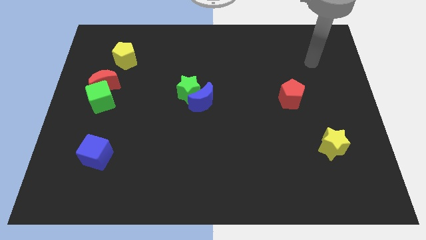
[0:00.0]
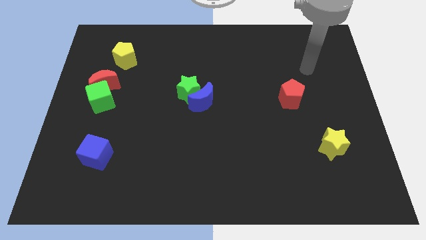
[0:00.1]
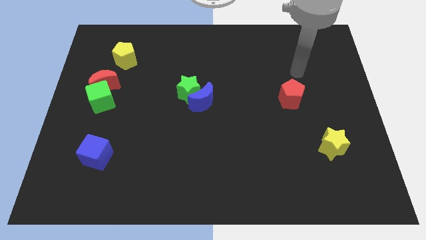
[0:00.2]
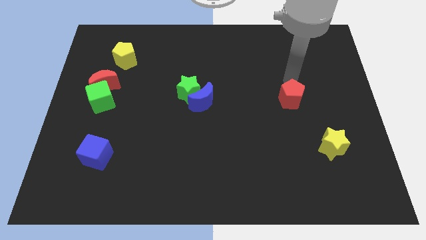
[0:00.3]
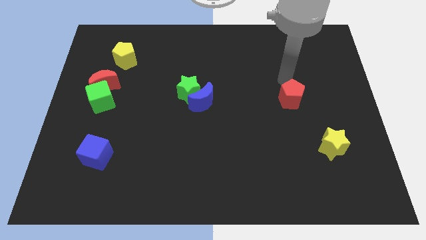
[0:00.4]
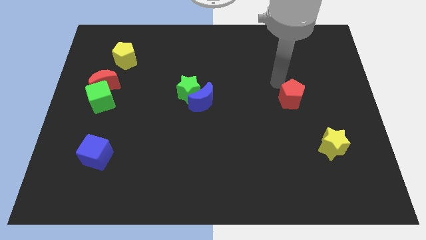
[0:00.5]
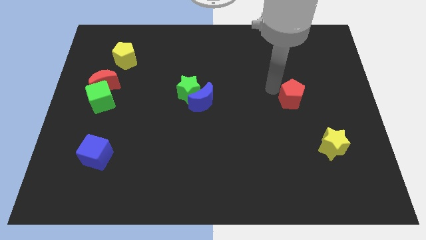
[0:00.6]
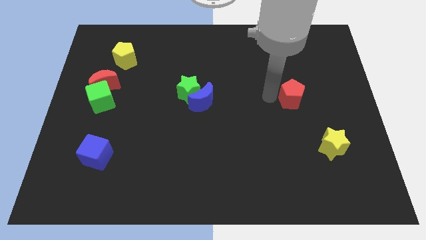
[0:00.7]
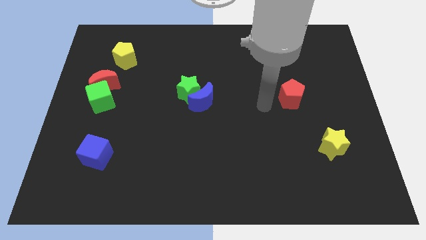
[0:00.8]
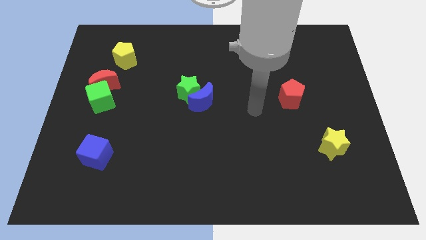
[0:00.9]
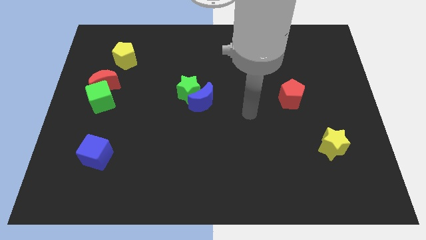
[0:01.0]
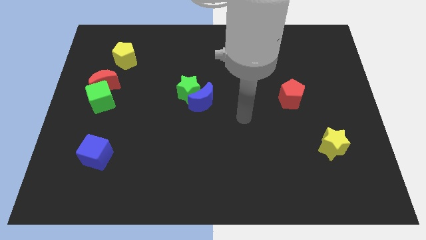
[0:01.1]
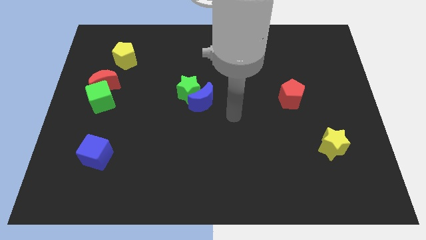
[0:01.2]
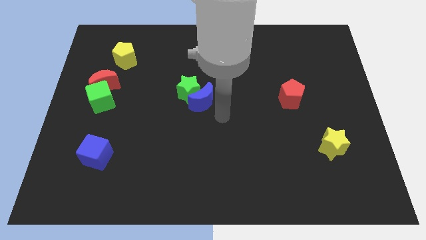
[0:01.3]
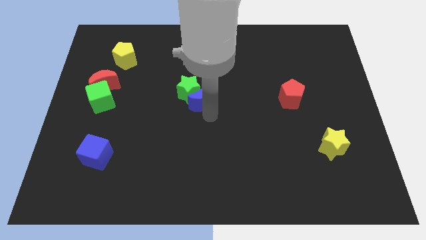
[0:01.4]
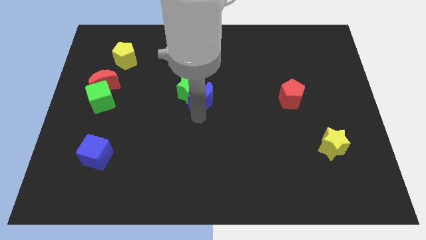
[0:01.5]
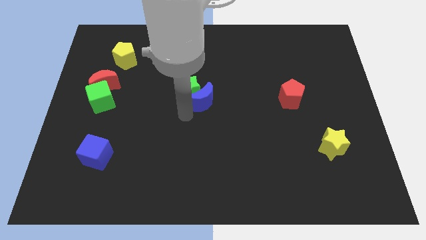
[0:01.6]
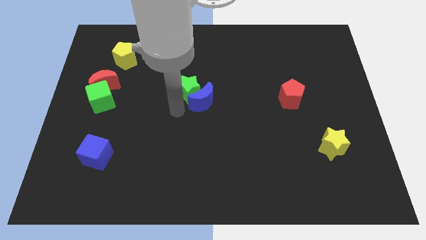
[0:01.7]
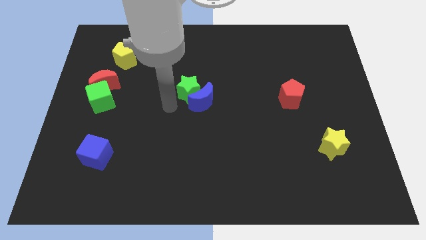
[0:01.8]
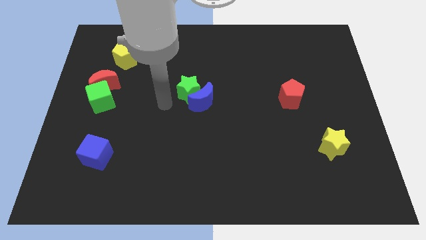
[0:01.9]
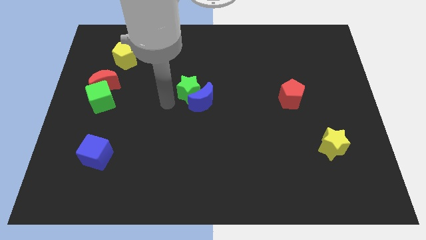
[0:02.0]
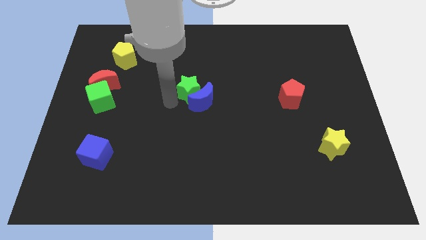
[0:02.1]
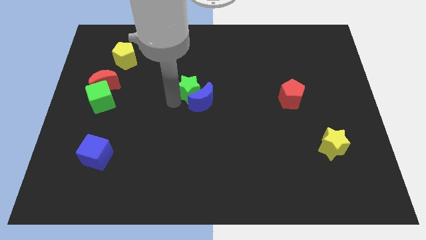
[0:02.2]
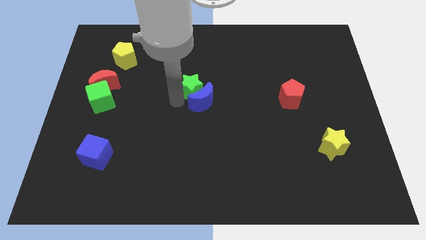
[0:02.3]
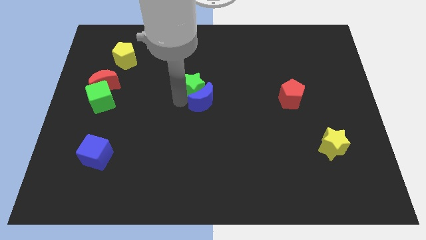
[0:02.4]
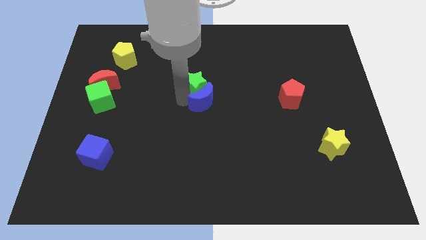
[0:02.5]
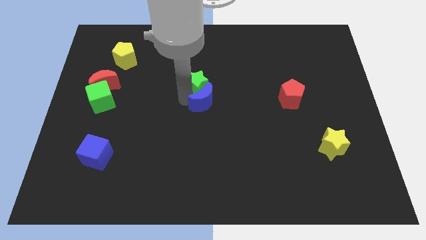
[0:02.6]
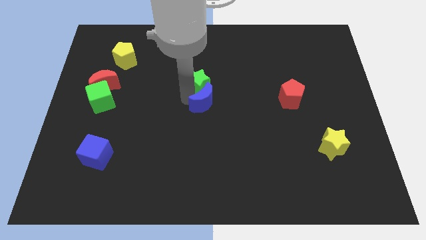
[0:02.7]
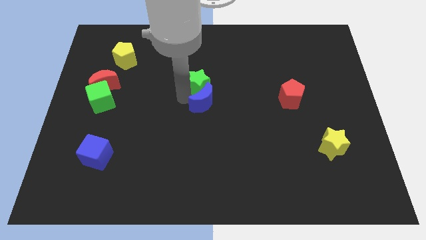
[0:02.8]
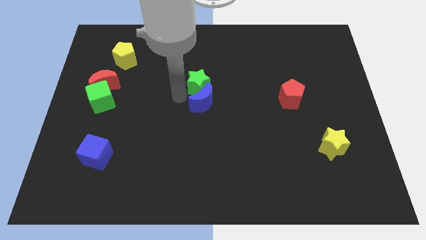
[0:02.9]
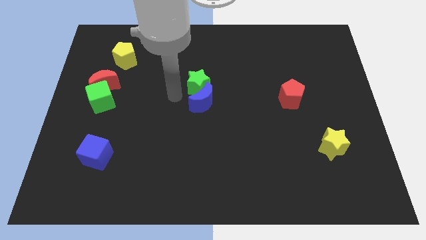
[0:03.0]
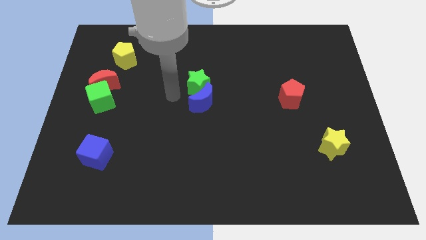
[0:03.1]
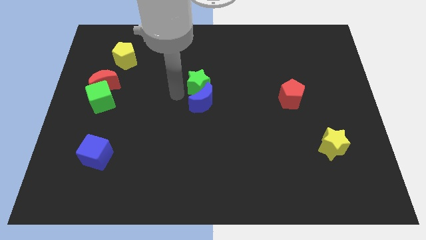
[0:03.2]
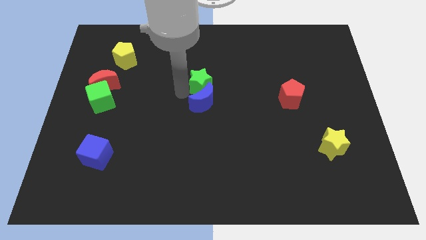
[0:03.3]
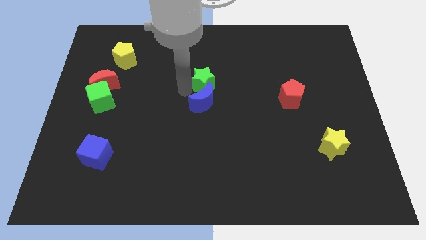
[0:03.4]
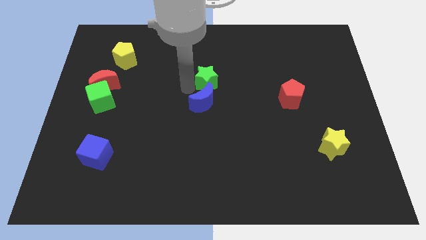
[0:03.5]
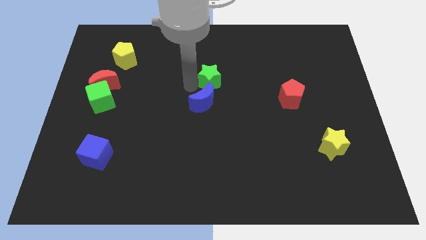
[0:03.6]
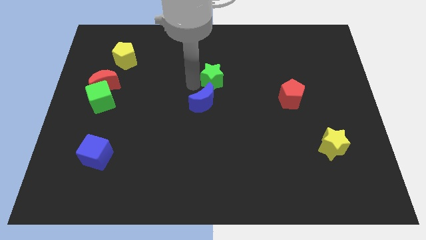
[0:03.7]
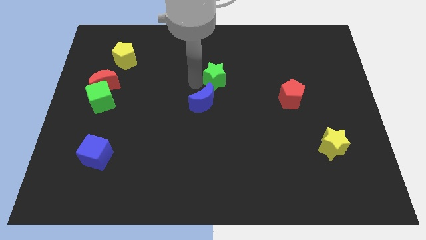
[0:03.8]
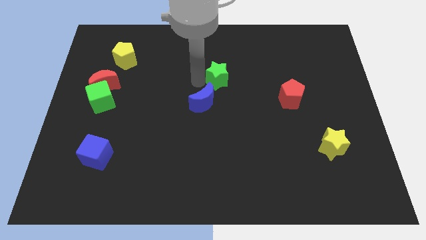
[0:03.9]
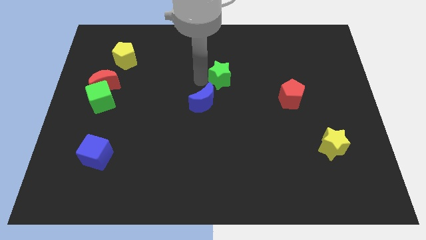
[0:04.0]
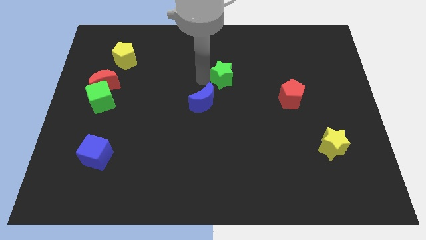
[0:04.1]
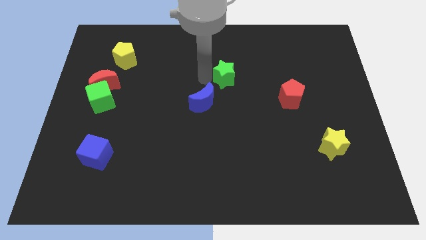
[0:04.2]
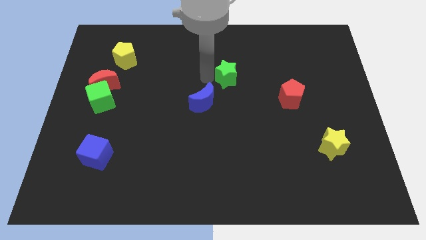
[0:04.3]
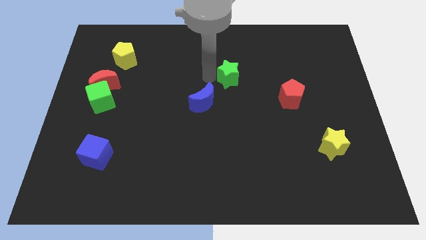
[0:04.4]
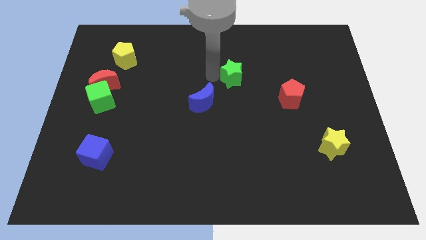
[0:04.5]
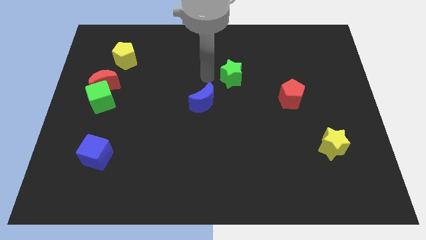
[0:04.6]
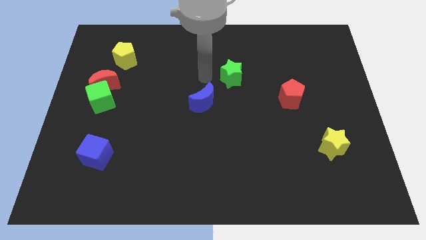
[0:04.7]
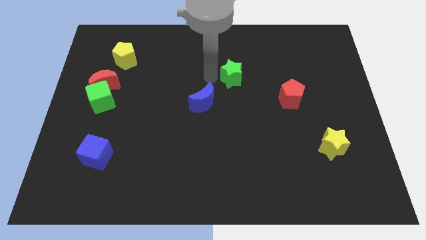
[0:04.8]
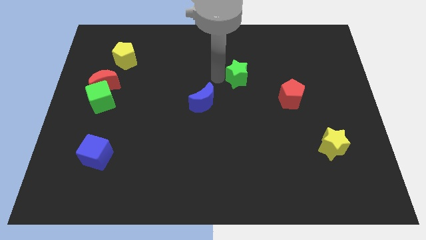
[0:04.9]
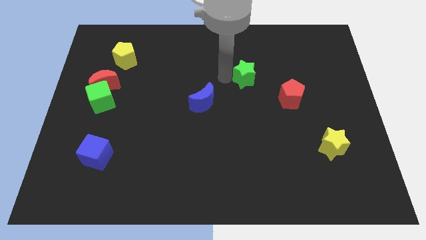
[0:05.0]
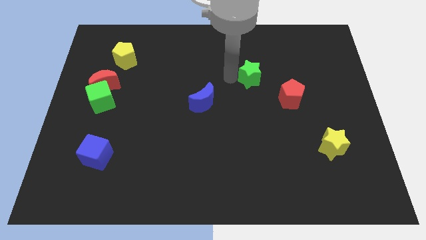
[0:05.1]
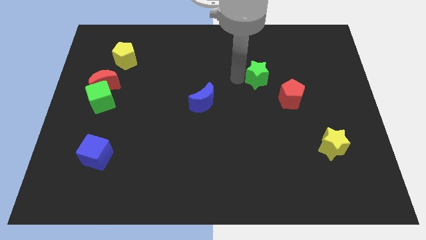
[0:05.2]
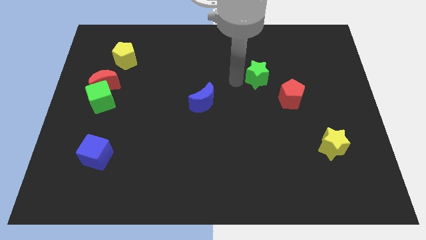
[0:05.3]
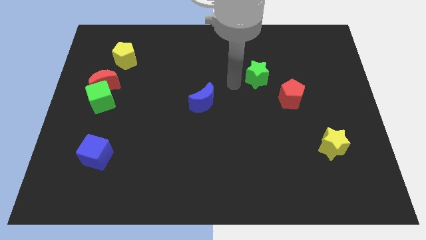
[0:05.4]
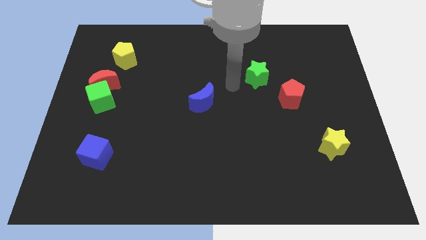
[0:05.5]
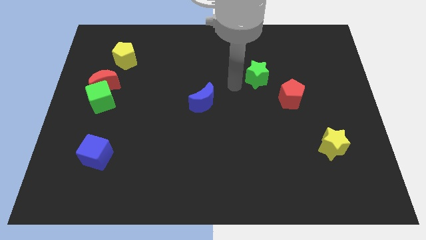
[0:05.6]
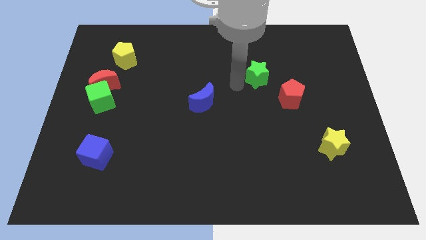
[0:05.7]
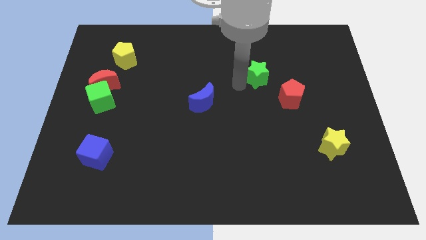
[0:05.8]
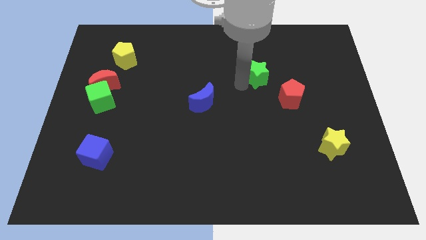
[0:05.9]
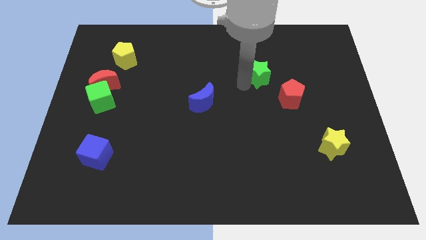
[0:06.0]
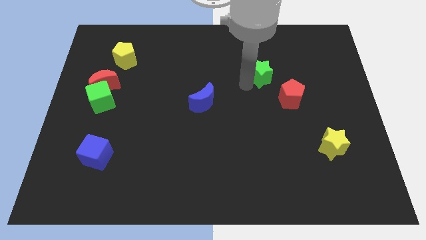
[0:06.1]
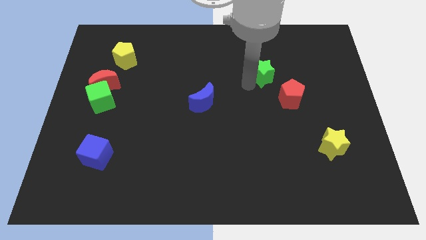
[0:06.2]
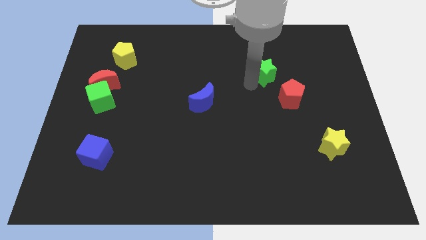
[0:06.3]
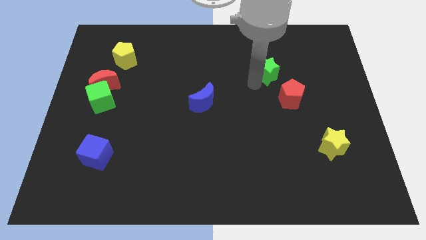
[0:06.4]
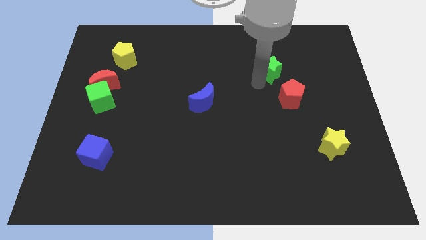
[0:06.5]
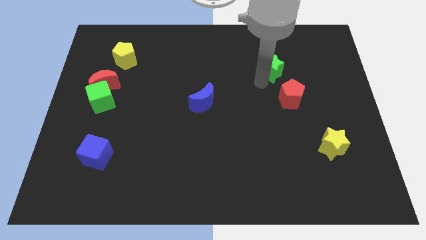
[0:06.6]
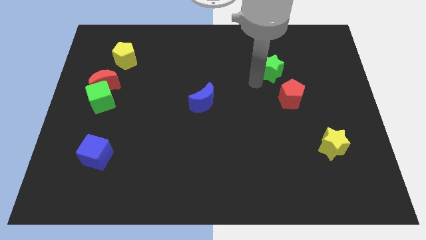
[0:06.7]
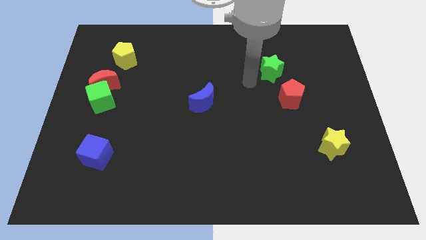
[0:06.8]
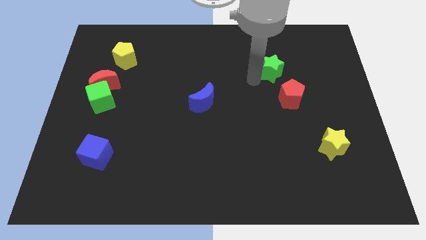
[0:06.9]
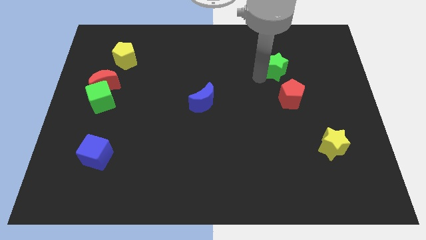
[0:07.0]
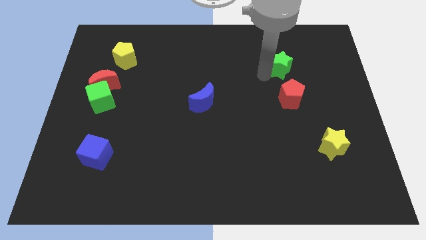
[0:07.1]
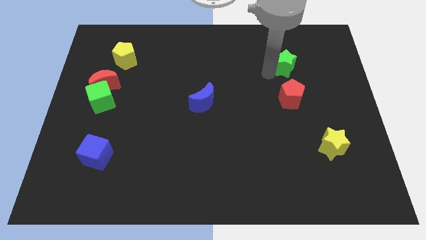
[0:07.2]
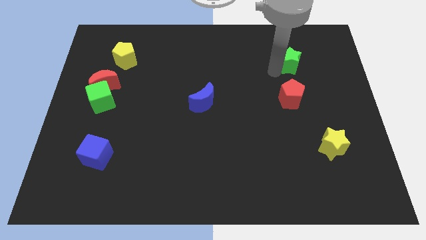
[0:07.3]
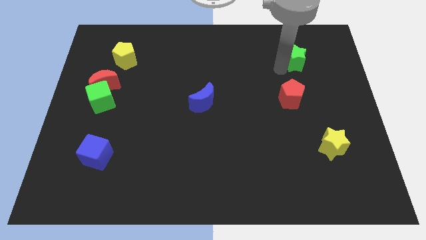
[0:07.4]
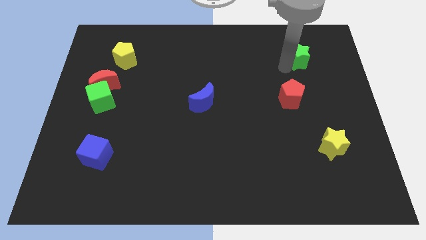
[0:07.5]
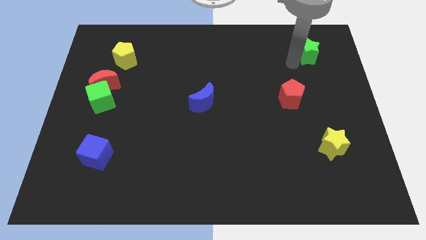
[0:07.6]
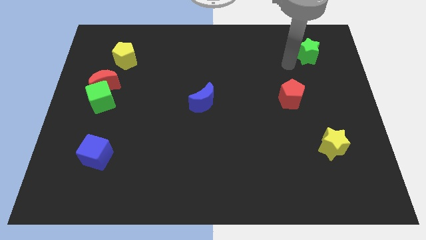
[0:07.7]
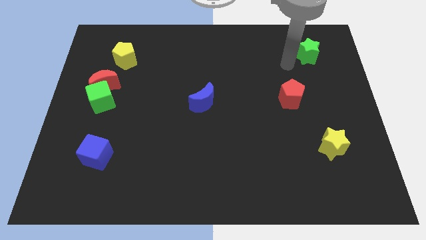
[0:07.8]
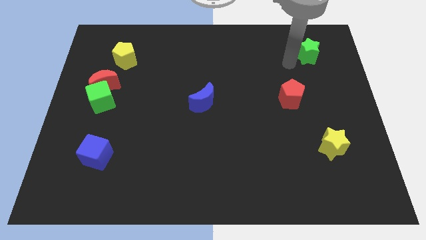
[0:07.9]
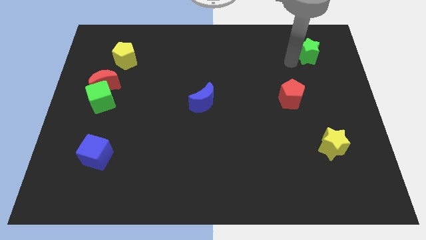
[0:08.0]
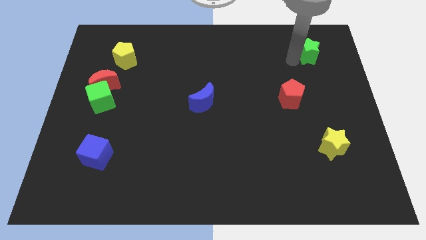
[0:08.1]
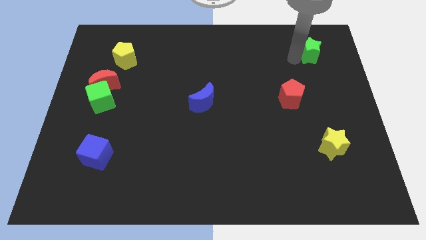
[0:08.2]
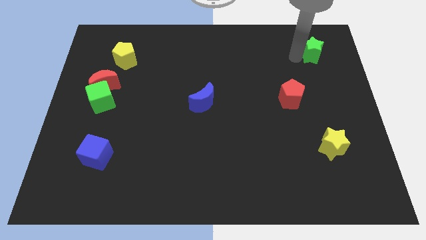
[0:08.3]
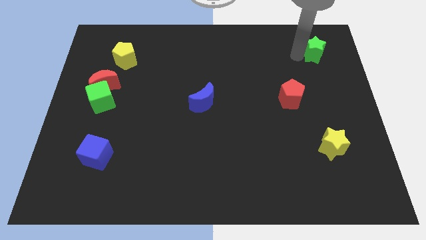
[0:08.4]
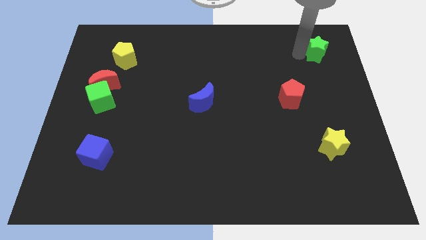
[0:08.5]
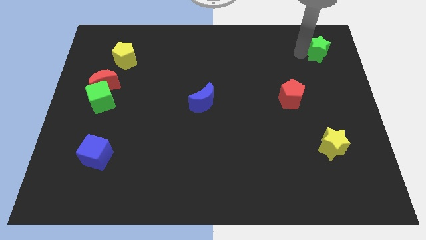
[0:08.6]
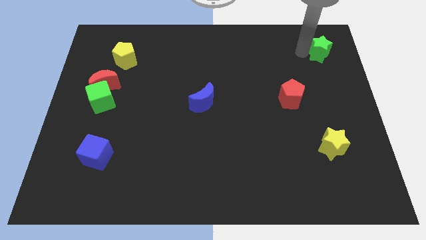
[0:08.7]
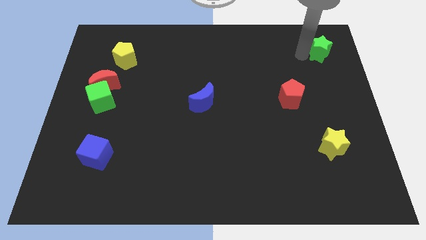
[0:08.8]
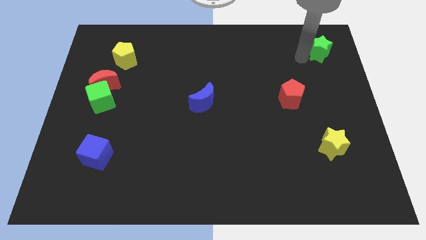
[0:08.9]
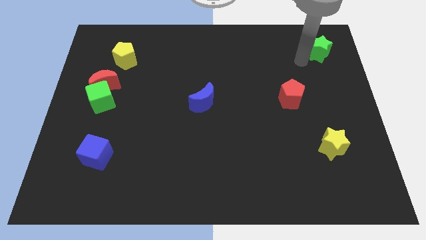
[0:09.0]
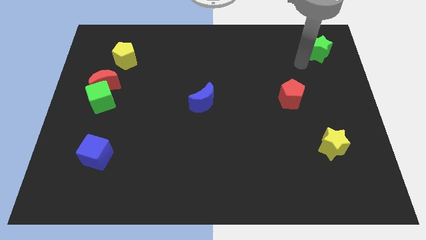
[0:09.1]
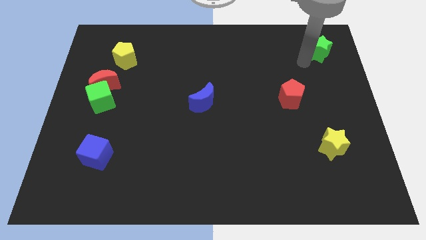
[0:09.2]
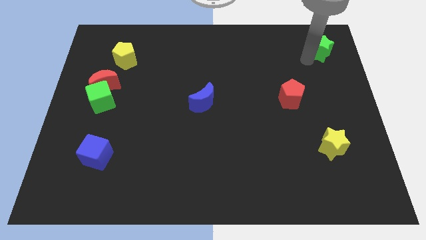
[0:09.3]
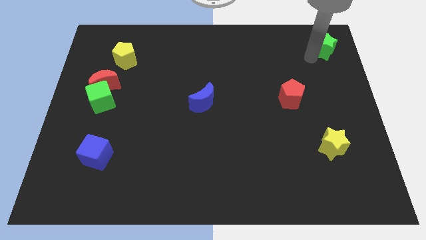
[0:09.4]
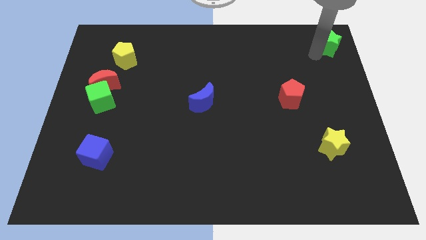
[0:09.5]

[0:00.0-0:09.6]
slide the green star to the top right of the board
